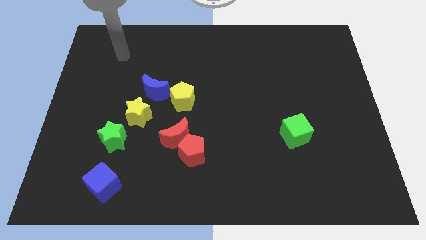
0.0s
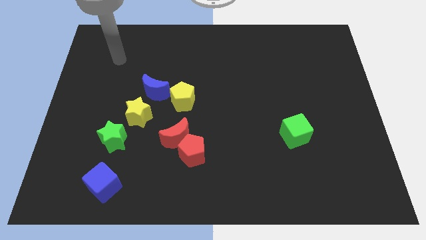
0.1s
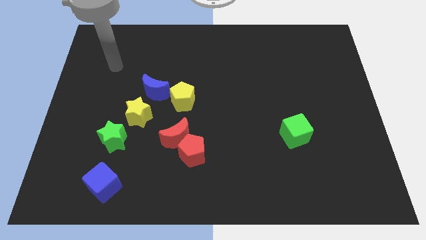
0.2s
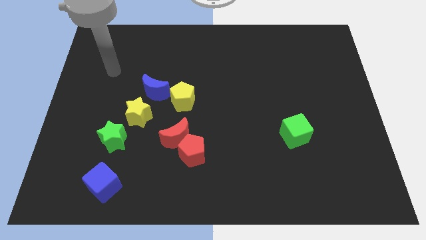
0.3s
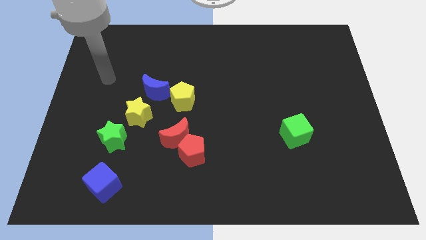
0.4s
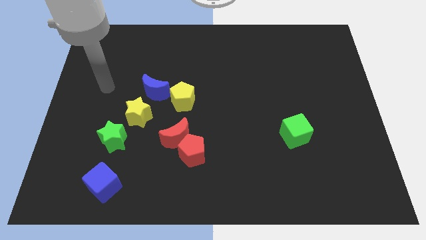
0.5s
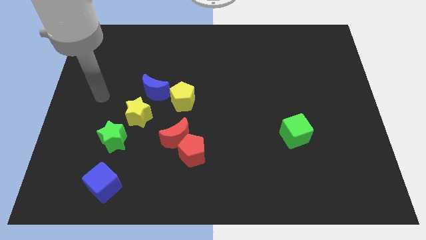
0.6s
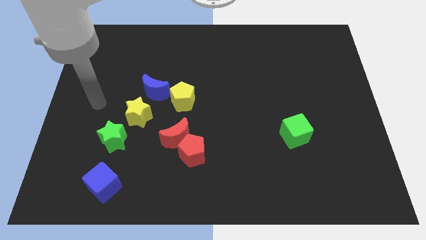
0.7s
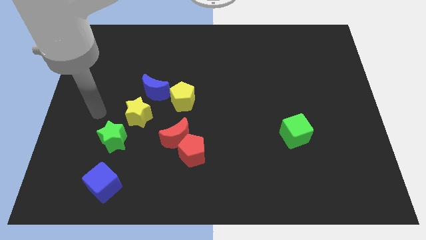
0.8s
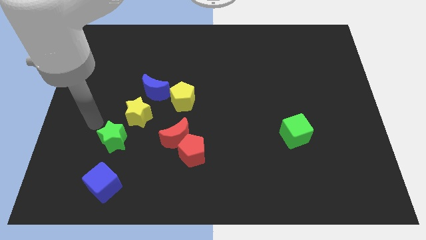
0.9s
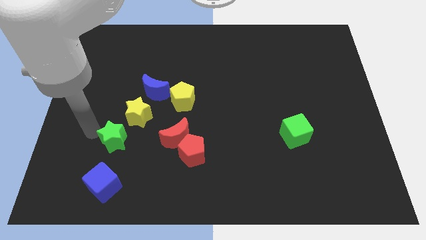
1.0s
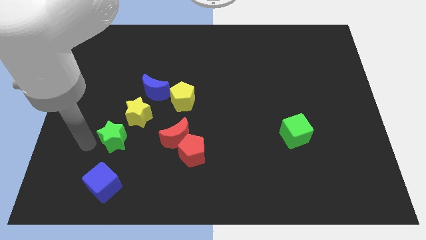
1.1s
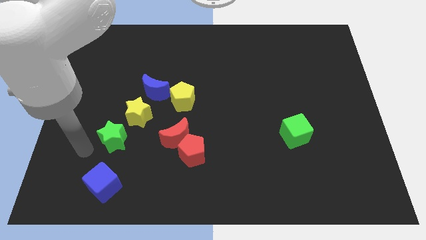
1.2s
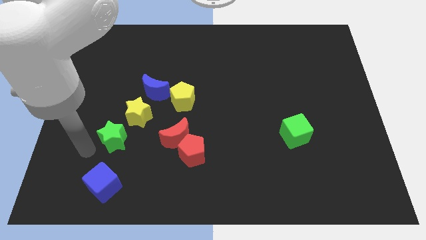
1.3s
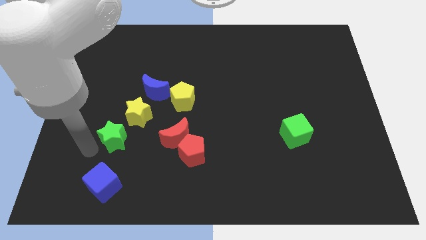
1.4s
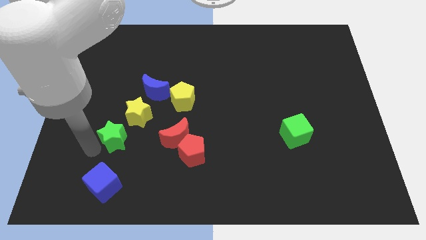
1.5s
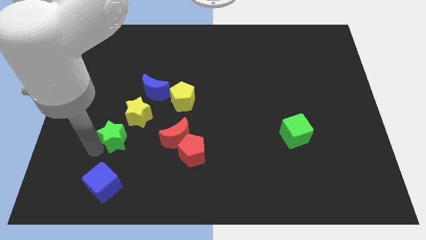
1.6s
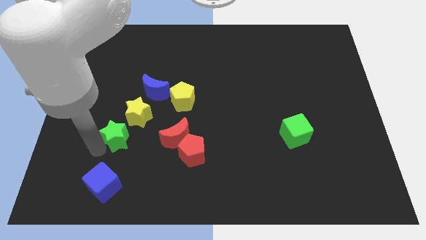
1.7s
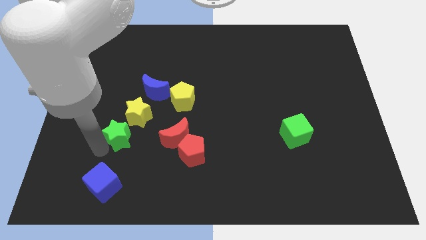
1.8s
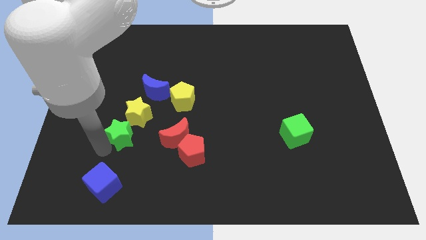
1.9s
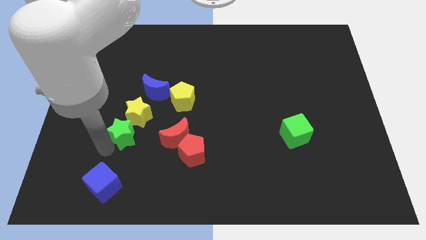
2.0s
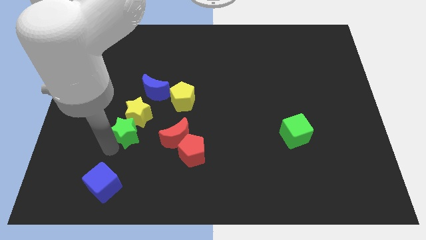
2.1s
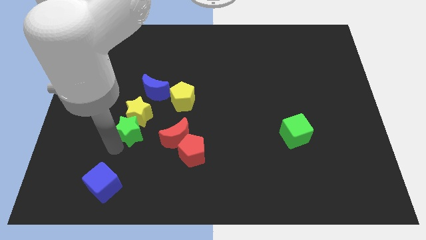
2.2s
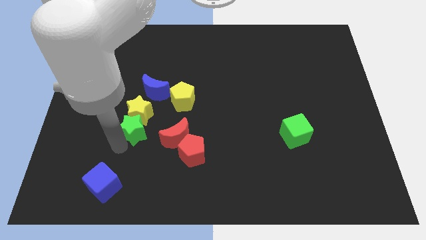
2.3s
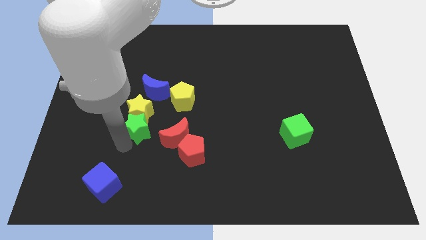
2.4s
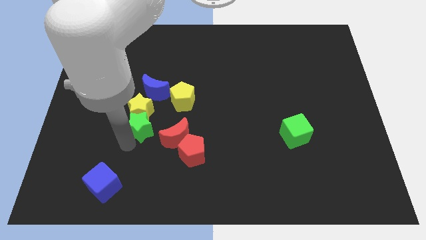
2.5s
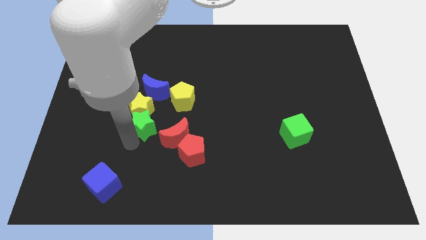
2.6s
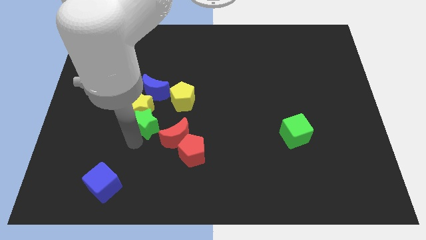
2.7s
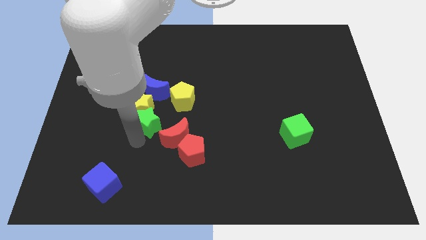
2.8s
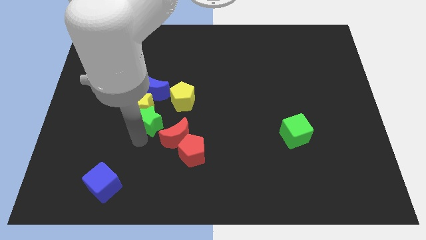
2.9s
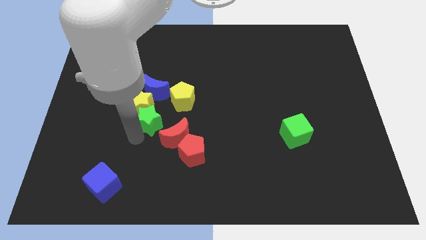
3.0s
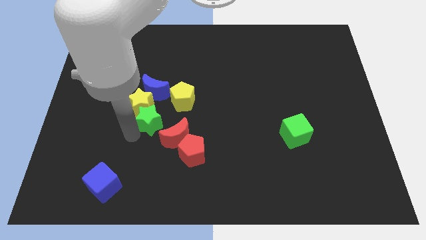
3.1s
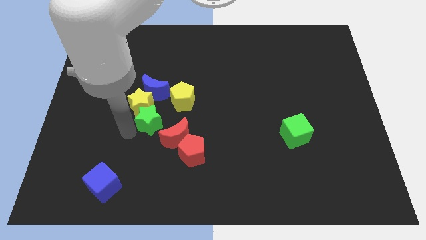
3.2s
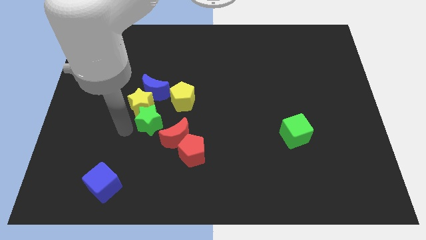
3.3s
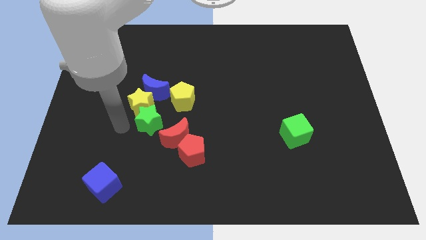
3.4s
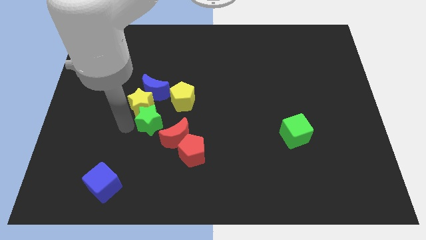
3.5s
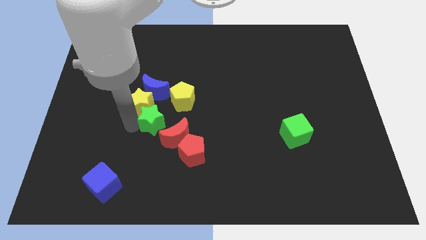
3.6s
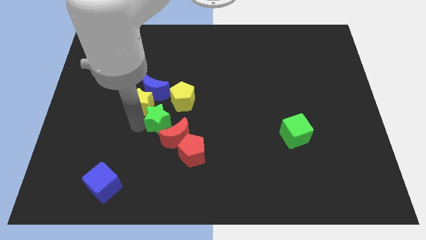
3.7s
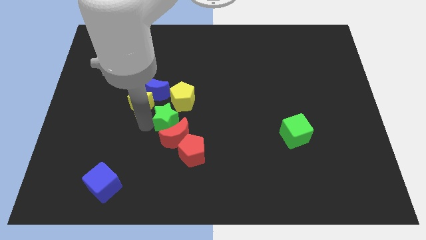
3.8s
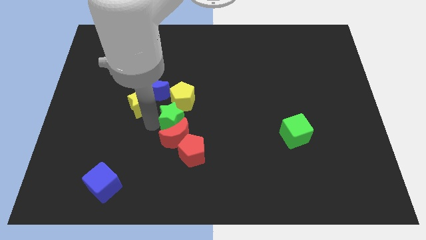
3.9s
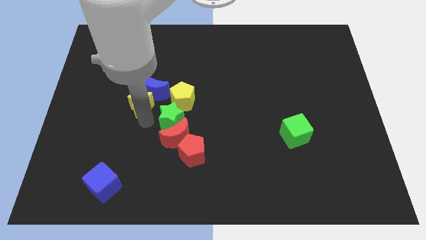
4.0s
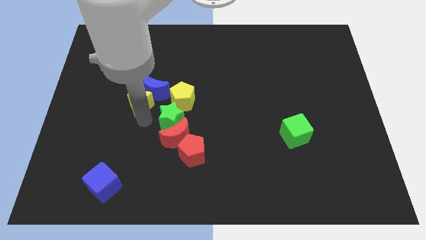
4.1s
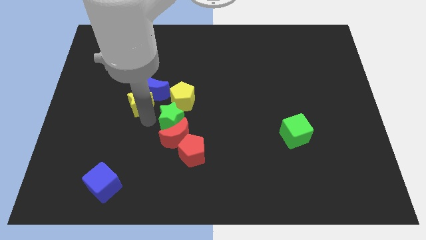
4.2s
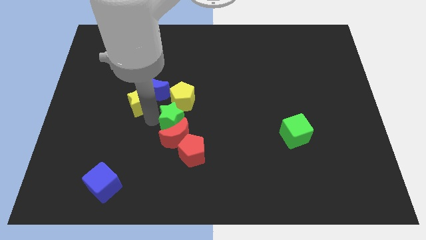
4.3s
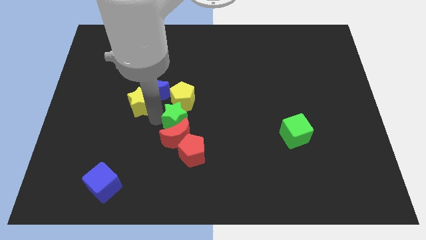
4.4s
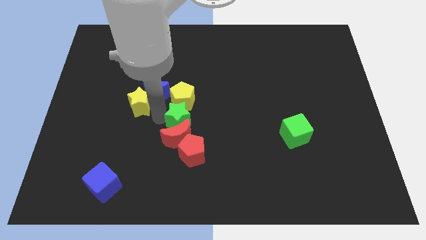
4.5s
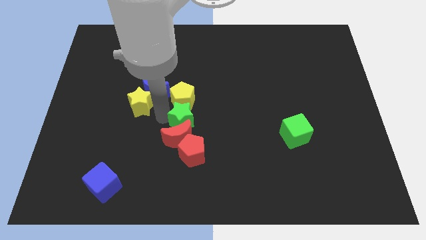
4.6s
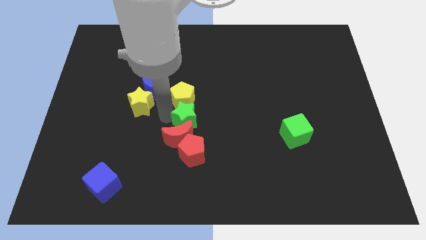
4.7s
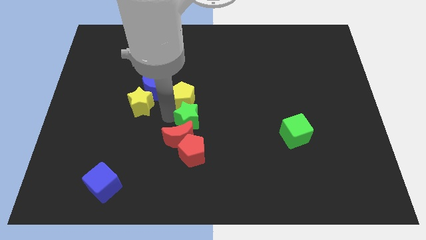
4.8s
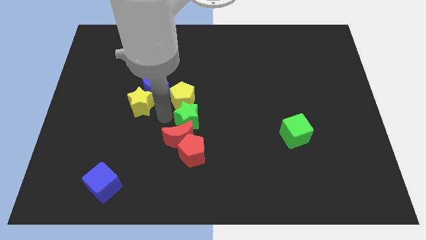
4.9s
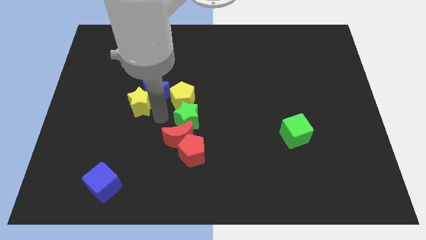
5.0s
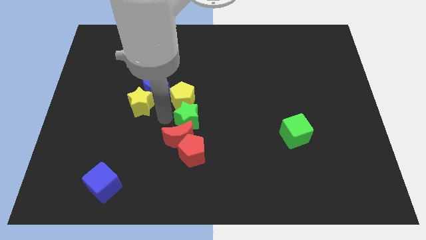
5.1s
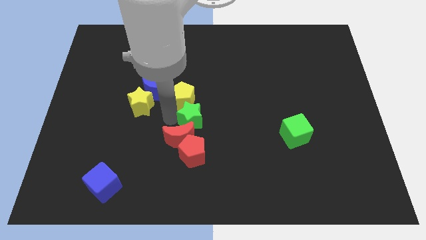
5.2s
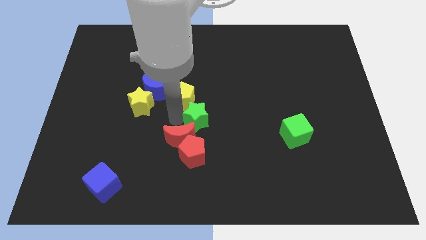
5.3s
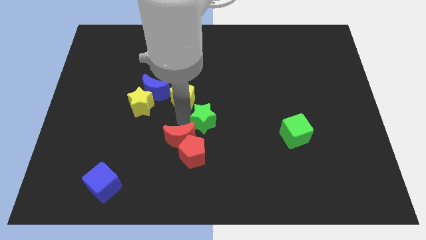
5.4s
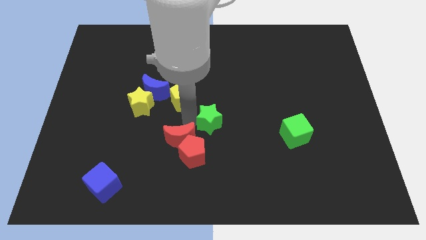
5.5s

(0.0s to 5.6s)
push the green star right

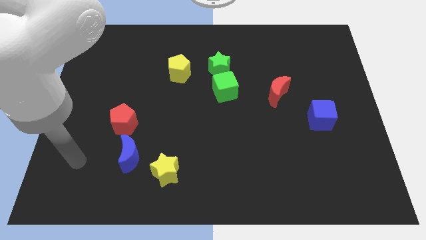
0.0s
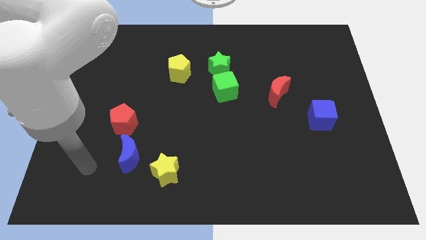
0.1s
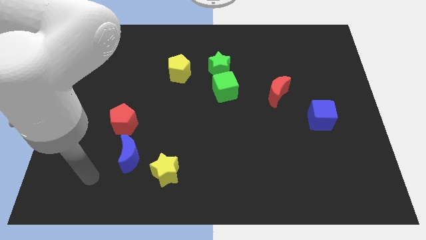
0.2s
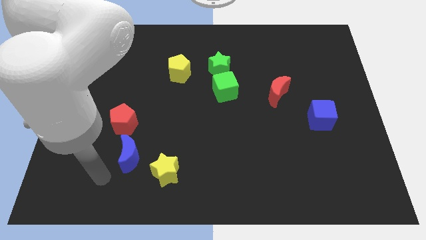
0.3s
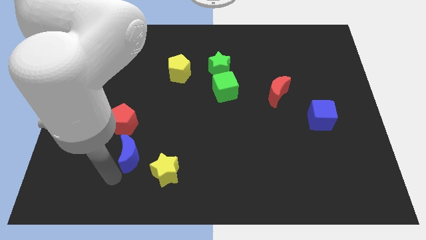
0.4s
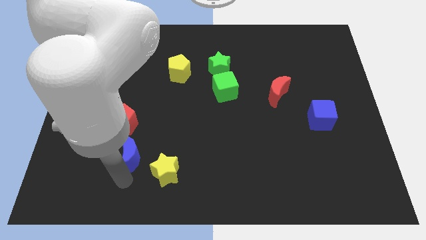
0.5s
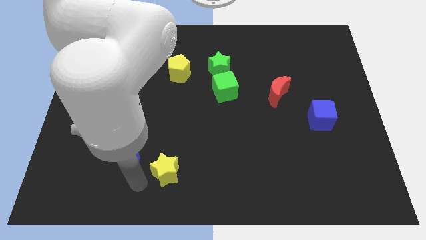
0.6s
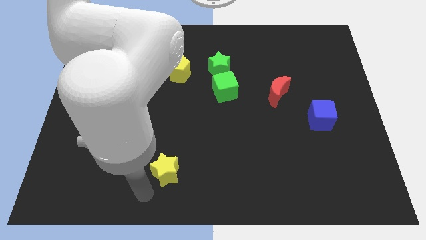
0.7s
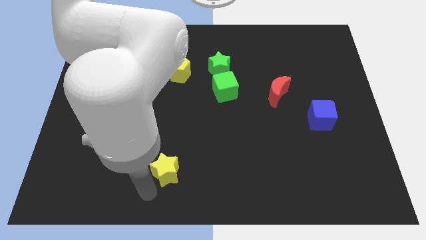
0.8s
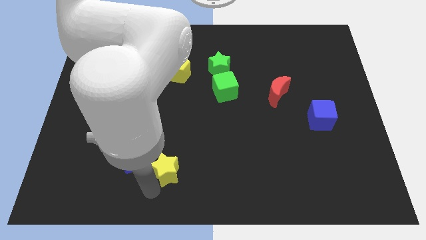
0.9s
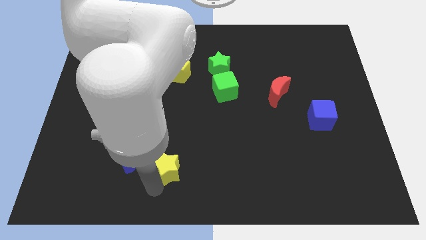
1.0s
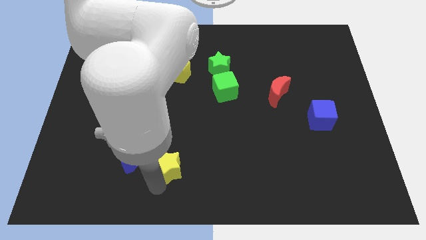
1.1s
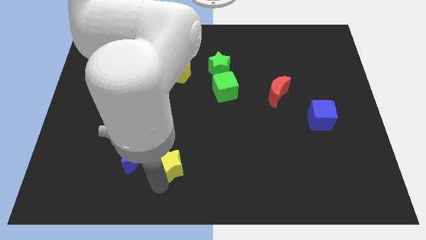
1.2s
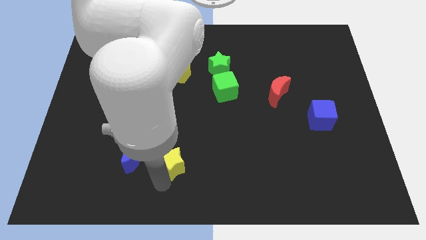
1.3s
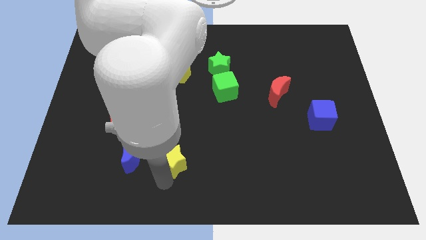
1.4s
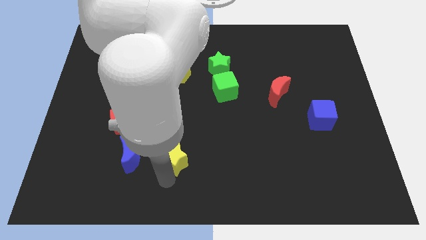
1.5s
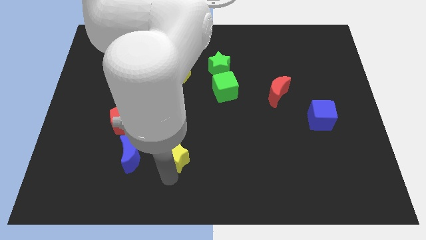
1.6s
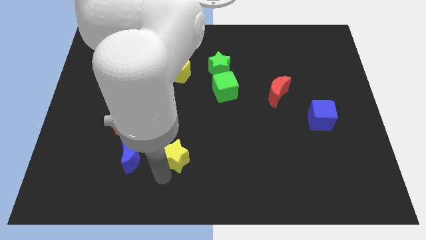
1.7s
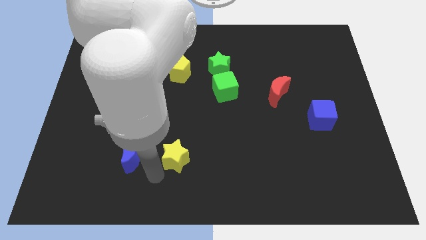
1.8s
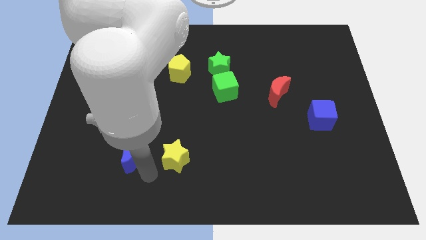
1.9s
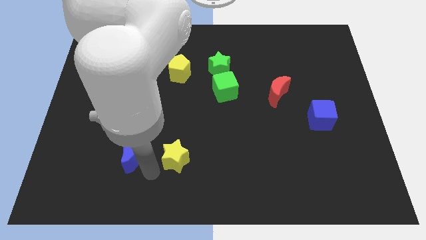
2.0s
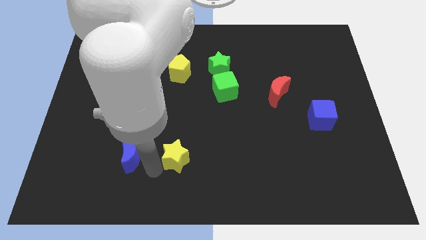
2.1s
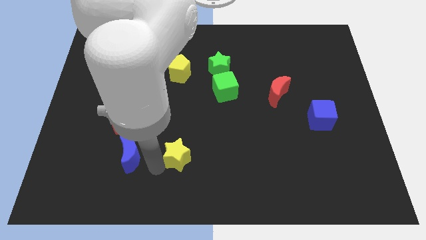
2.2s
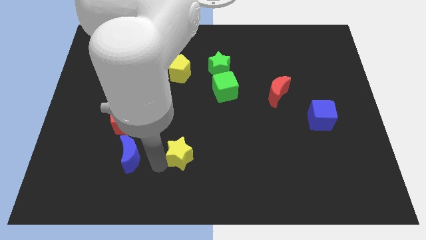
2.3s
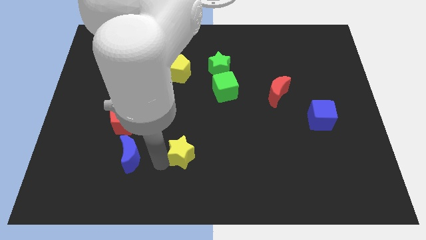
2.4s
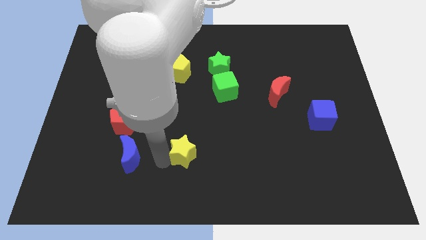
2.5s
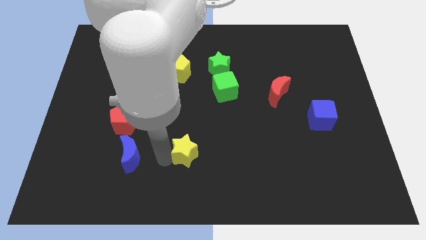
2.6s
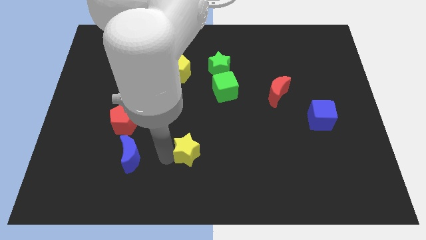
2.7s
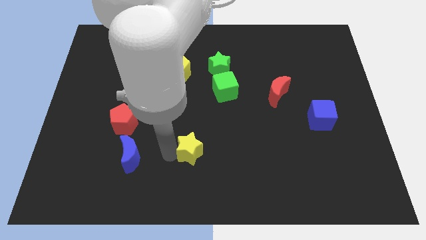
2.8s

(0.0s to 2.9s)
slightly move the yellow star diagonally upwards and right
